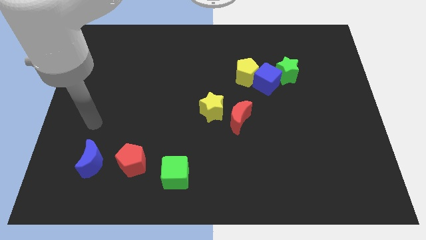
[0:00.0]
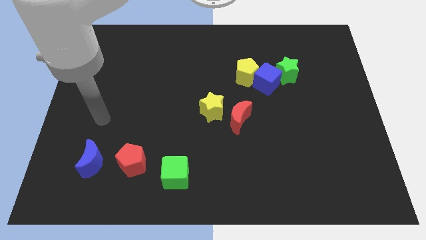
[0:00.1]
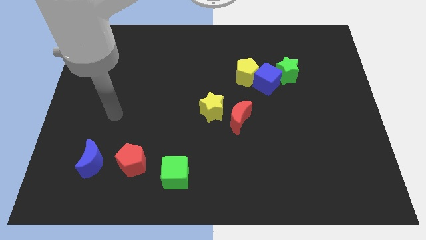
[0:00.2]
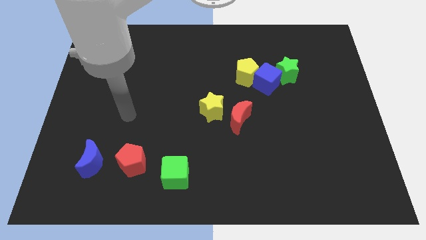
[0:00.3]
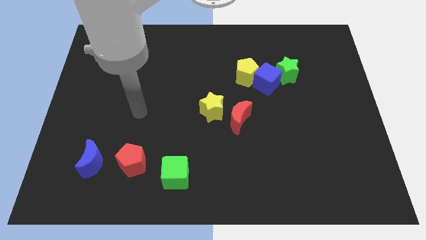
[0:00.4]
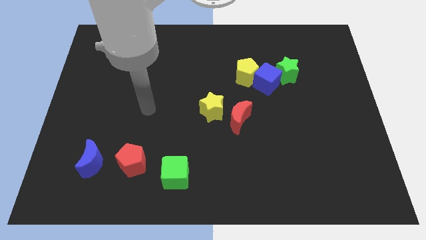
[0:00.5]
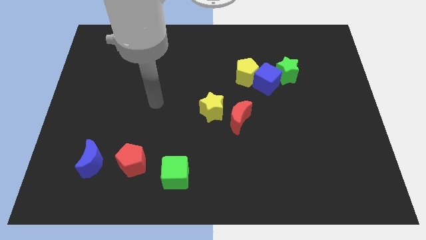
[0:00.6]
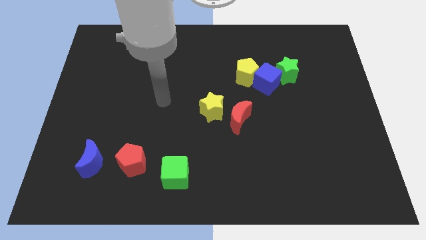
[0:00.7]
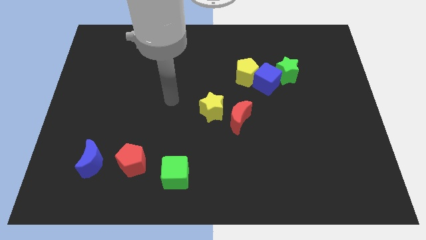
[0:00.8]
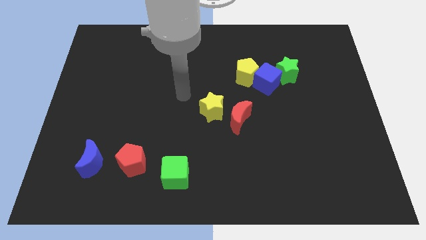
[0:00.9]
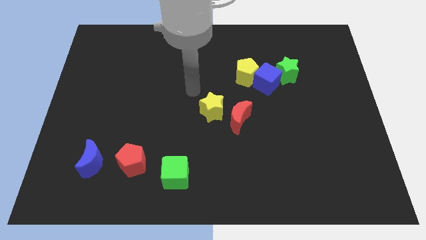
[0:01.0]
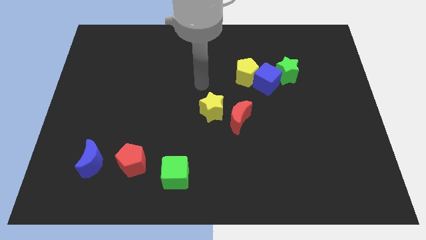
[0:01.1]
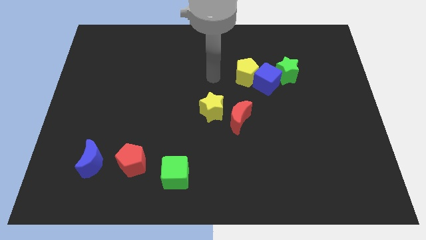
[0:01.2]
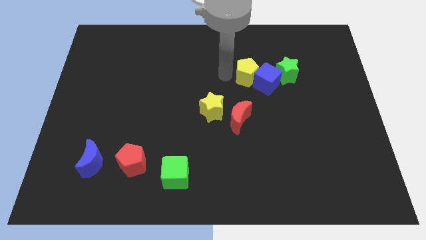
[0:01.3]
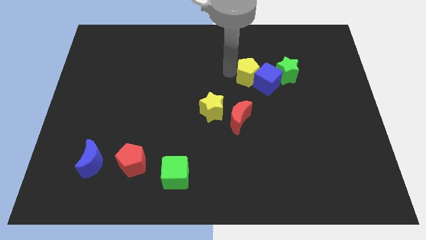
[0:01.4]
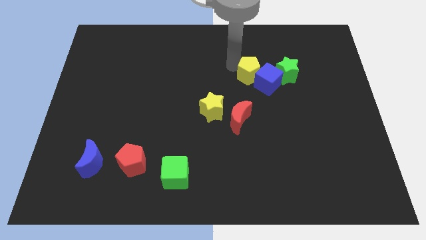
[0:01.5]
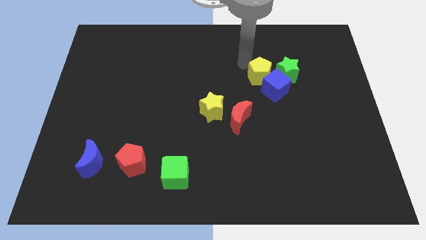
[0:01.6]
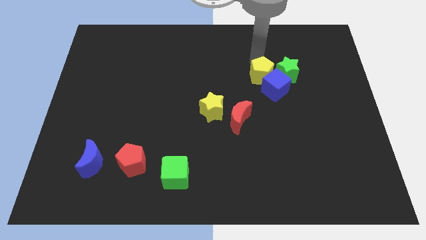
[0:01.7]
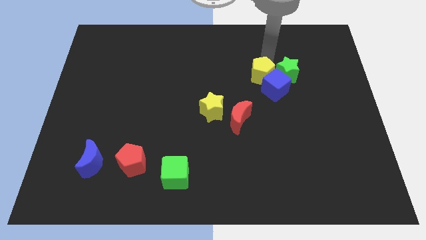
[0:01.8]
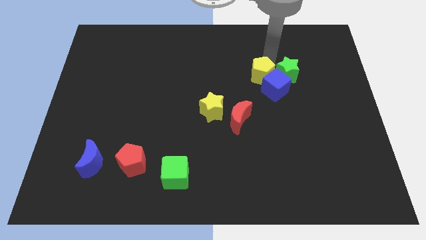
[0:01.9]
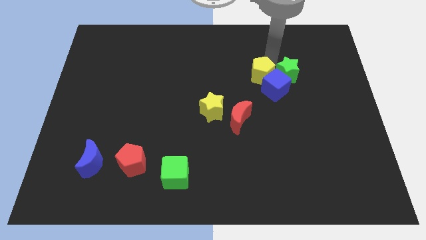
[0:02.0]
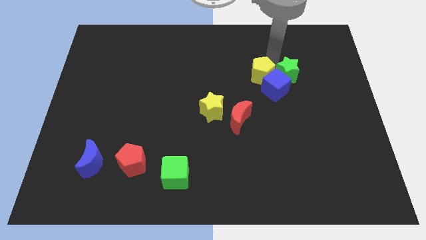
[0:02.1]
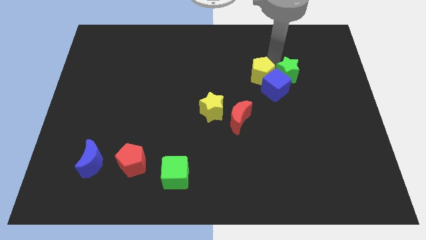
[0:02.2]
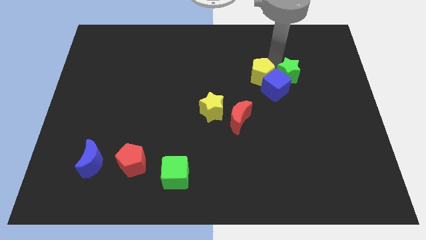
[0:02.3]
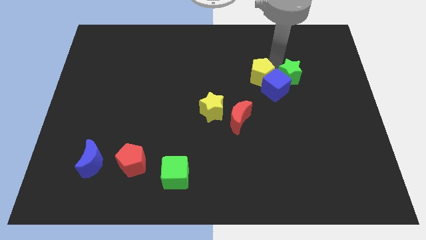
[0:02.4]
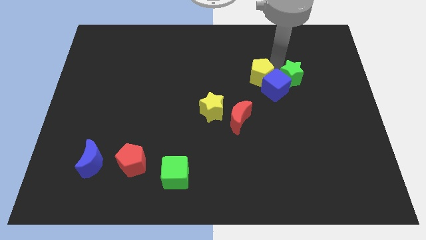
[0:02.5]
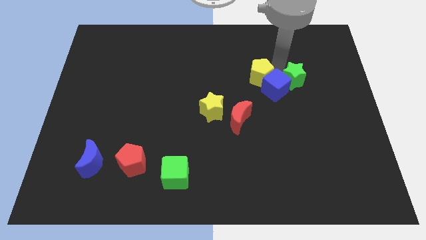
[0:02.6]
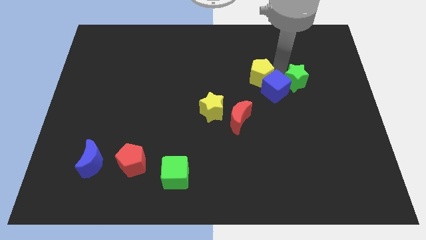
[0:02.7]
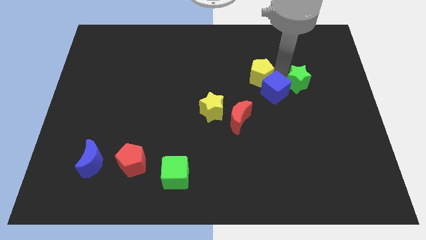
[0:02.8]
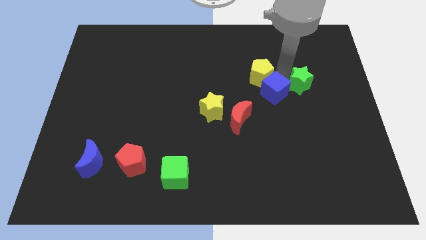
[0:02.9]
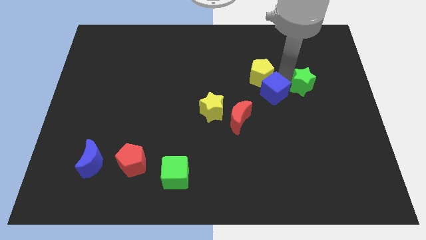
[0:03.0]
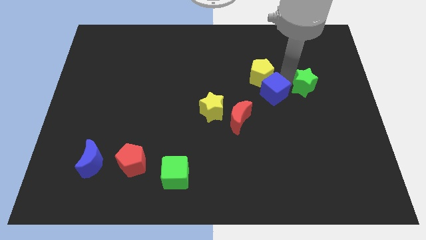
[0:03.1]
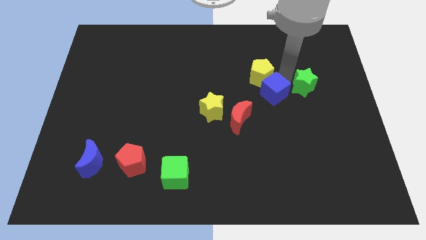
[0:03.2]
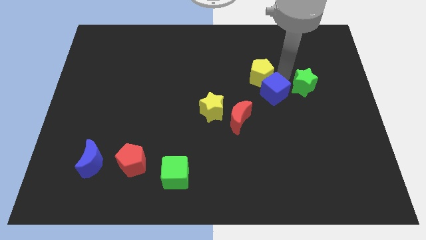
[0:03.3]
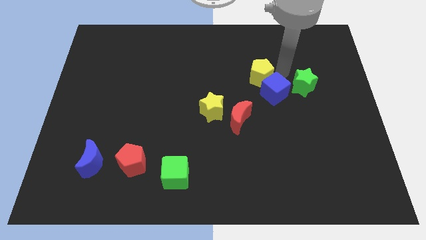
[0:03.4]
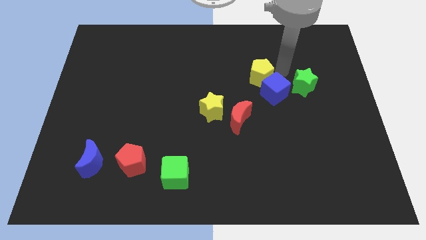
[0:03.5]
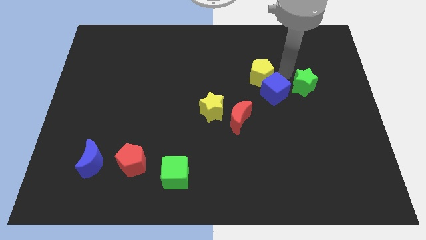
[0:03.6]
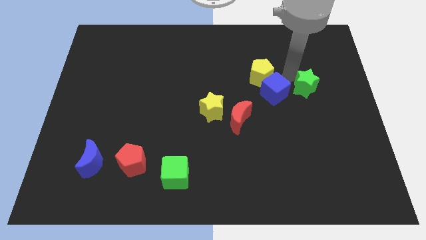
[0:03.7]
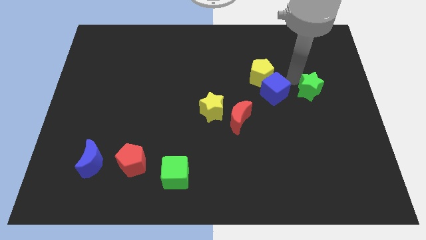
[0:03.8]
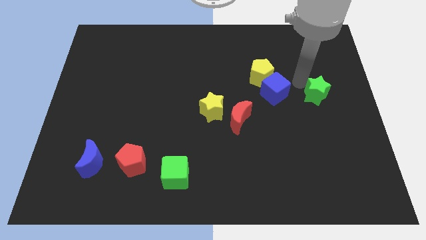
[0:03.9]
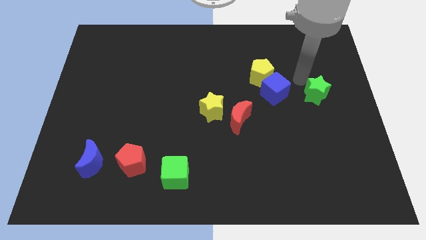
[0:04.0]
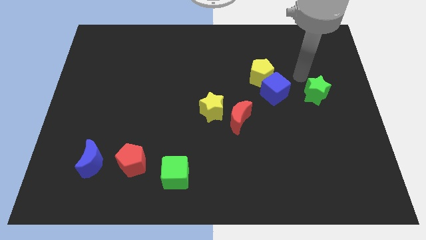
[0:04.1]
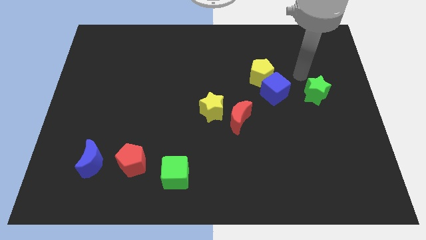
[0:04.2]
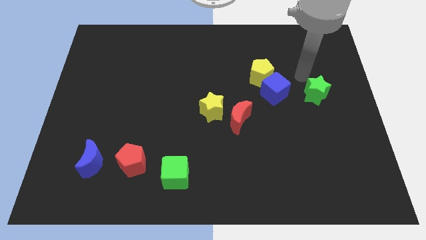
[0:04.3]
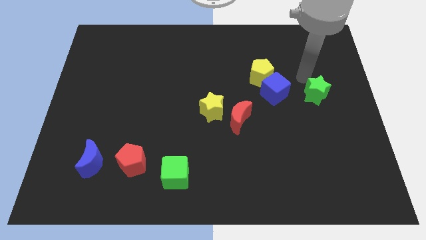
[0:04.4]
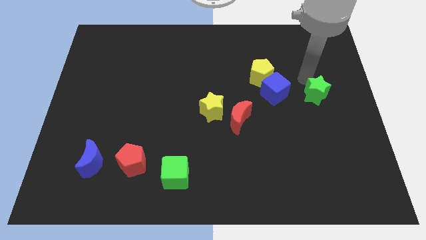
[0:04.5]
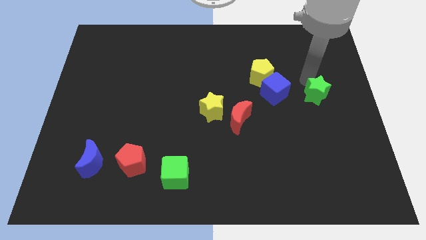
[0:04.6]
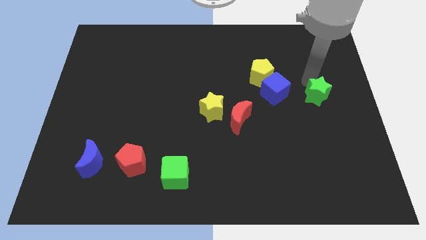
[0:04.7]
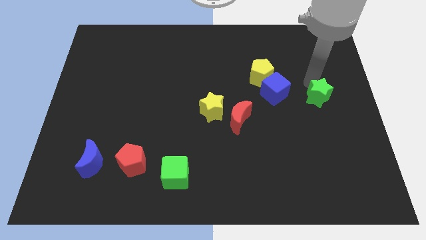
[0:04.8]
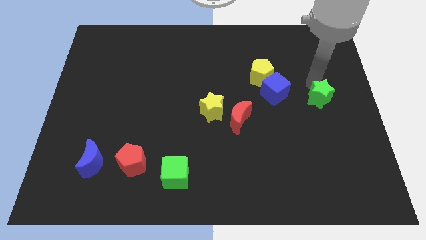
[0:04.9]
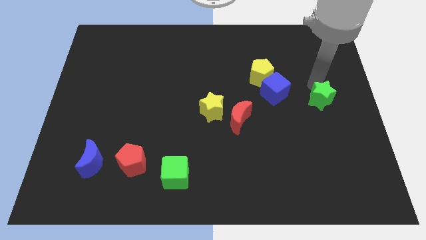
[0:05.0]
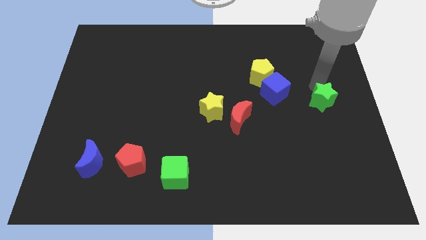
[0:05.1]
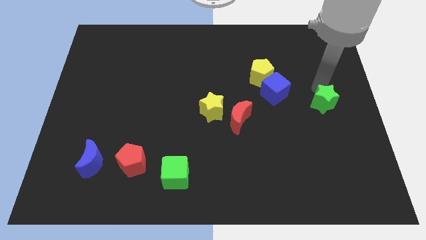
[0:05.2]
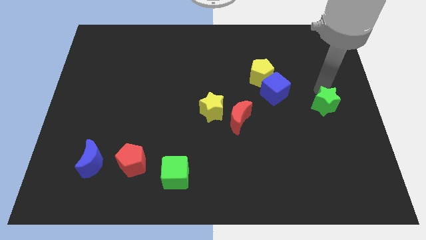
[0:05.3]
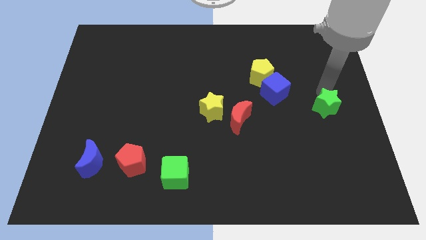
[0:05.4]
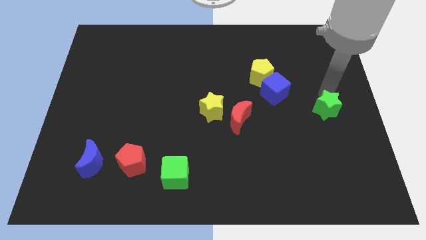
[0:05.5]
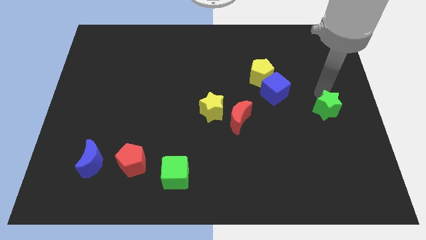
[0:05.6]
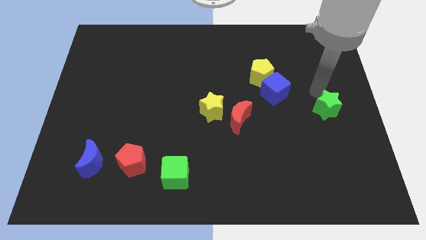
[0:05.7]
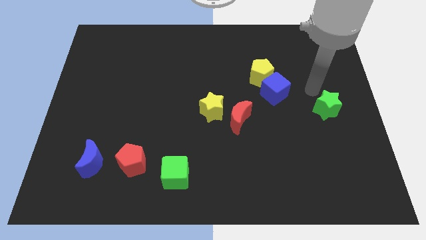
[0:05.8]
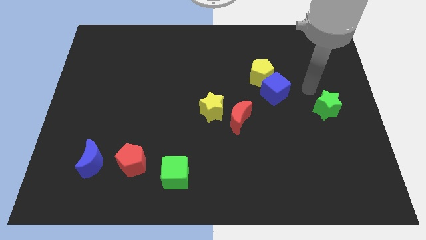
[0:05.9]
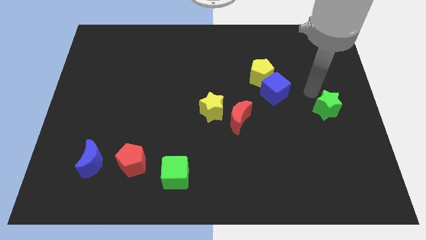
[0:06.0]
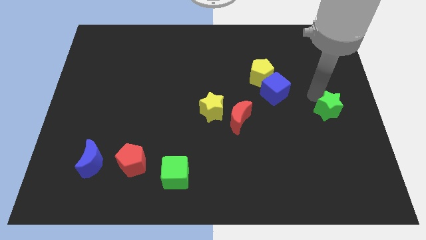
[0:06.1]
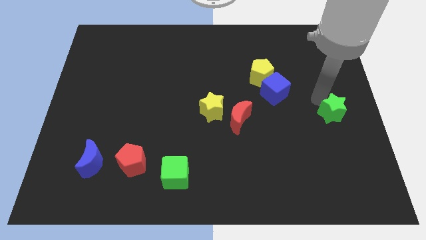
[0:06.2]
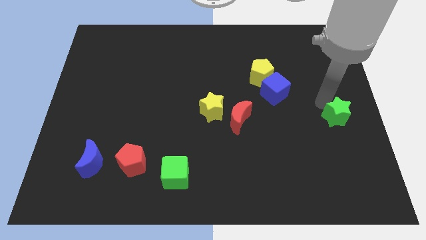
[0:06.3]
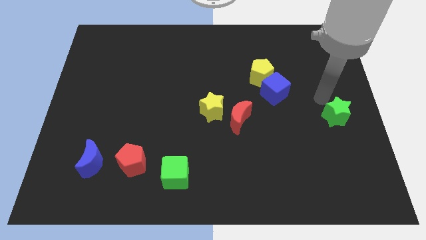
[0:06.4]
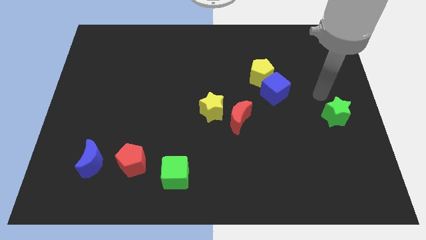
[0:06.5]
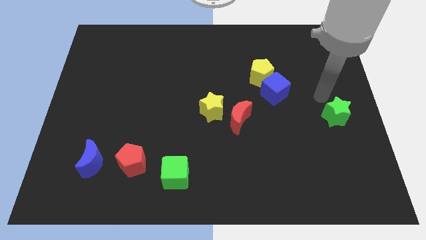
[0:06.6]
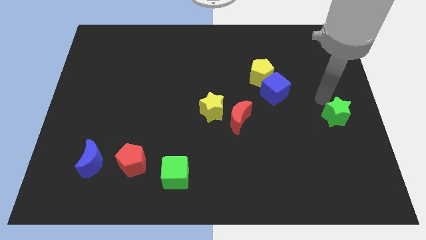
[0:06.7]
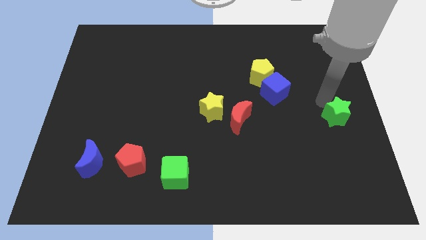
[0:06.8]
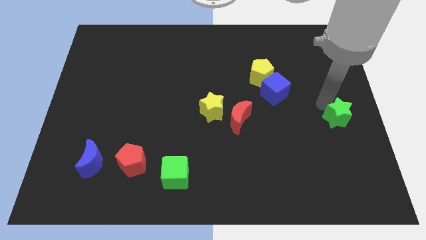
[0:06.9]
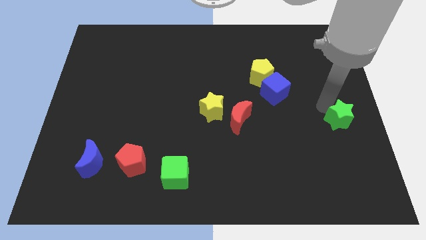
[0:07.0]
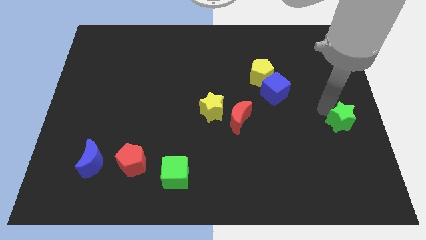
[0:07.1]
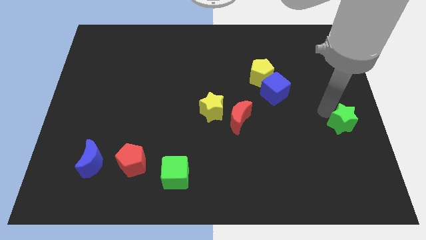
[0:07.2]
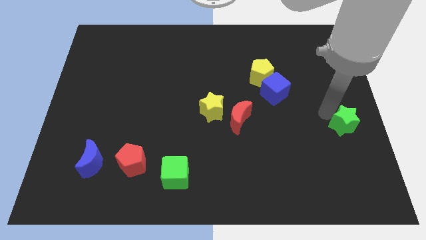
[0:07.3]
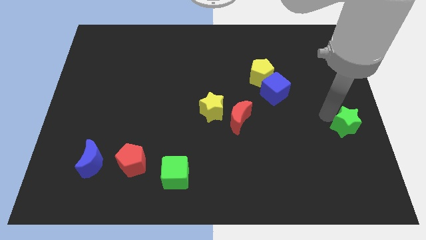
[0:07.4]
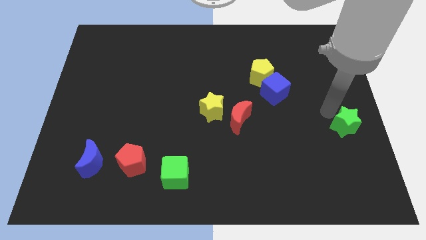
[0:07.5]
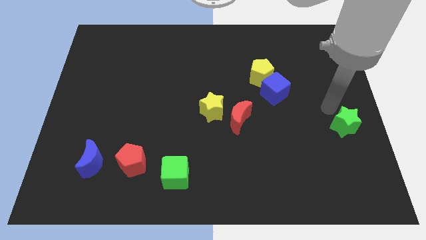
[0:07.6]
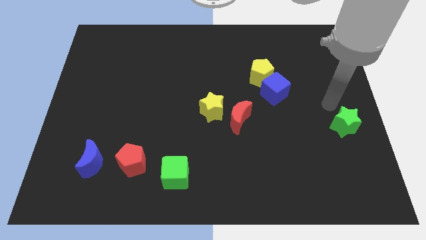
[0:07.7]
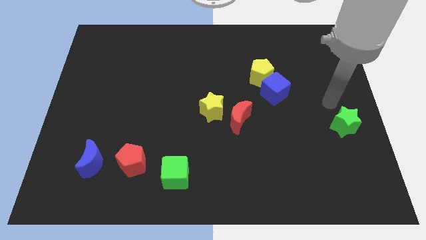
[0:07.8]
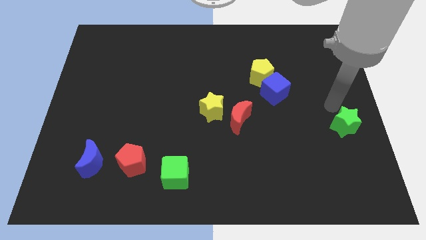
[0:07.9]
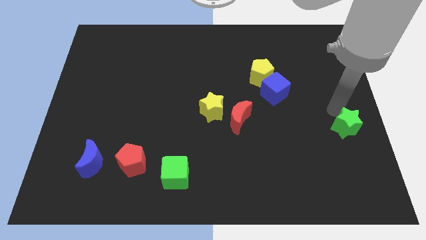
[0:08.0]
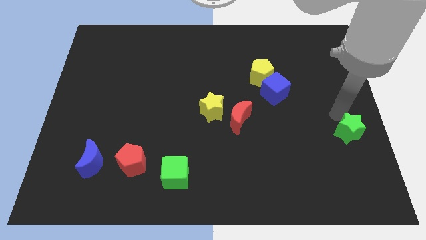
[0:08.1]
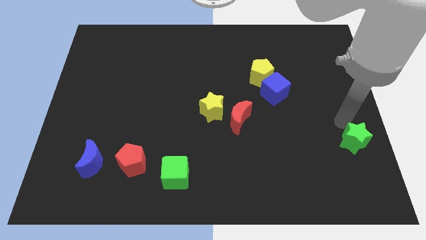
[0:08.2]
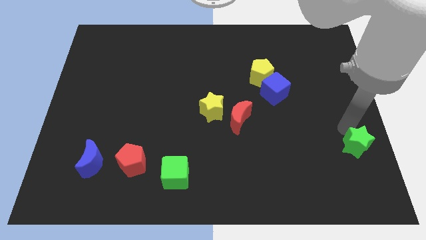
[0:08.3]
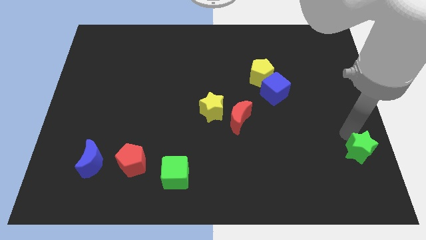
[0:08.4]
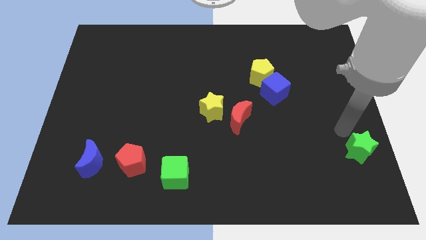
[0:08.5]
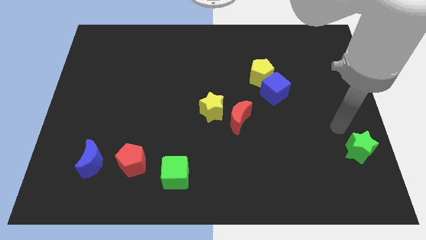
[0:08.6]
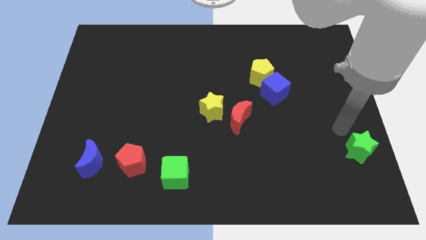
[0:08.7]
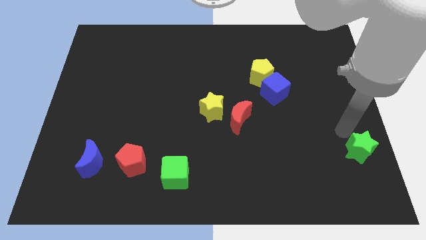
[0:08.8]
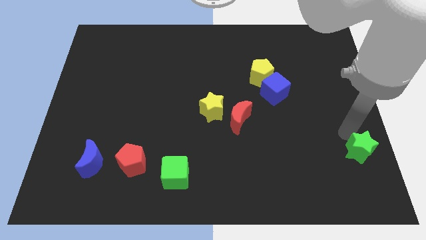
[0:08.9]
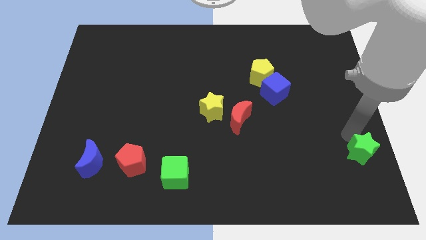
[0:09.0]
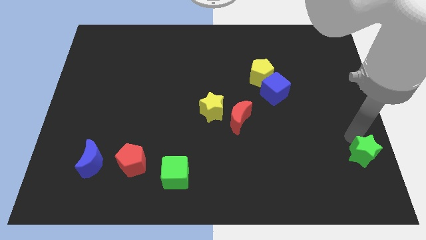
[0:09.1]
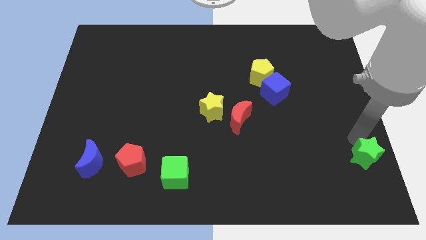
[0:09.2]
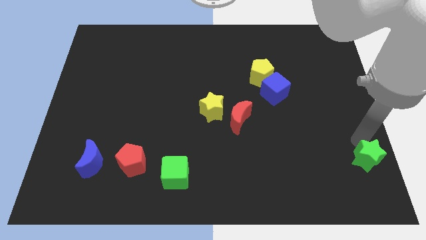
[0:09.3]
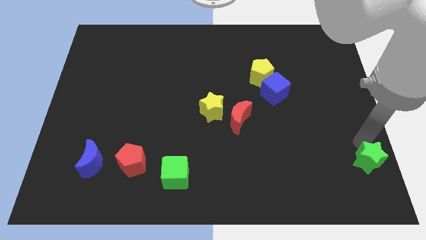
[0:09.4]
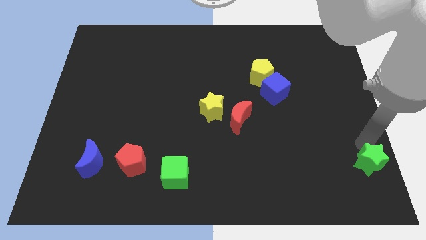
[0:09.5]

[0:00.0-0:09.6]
push the green star to the bottom right
